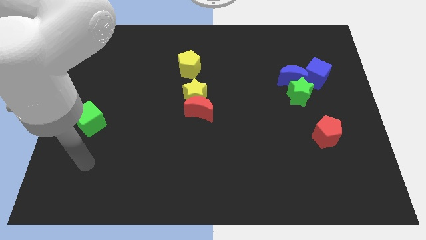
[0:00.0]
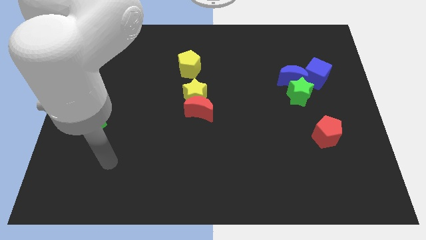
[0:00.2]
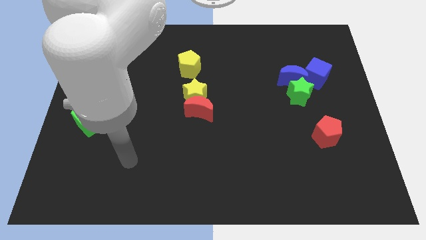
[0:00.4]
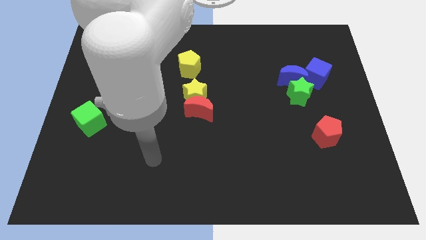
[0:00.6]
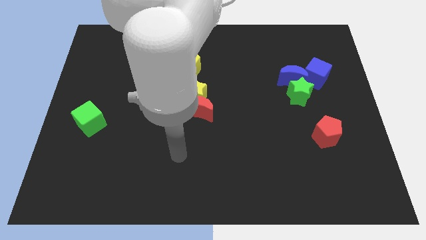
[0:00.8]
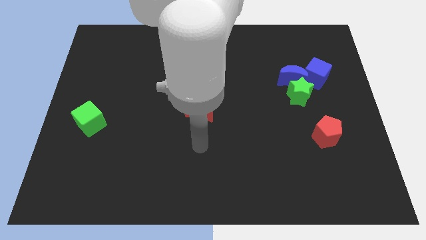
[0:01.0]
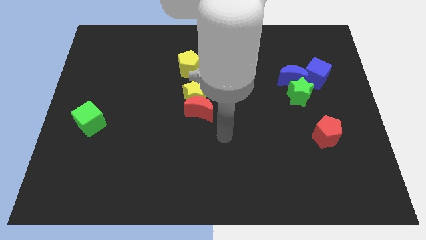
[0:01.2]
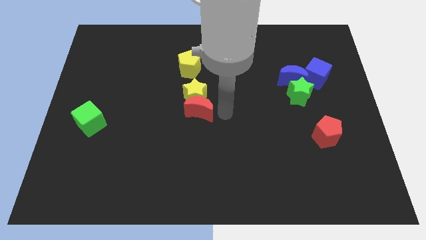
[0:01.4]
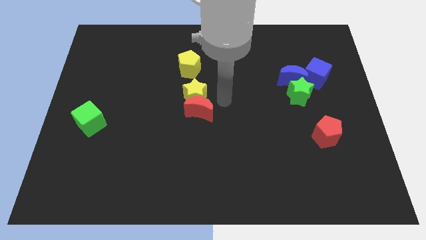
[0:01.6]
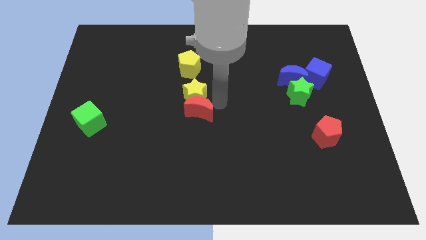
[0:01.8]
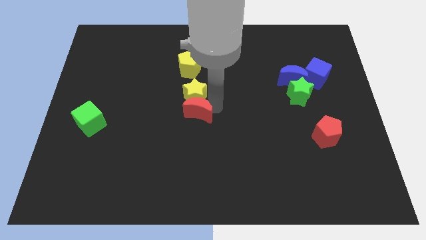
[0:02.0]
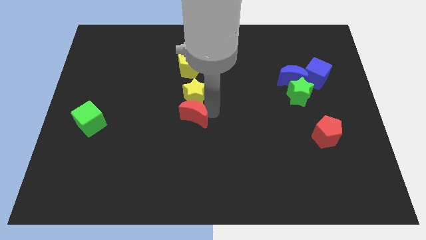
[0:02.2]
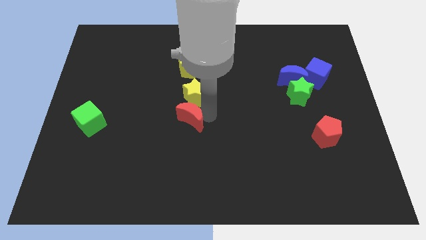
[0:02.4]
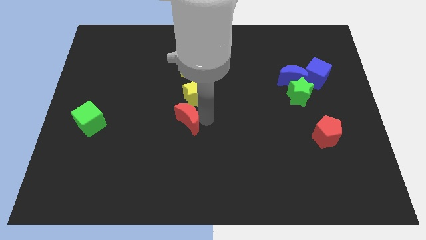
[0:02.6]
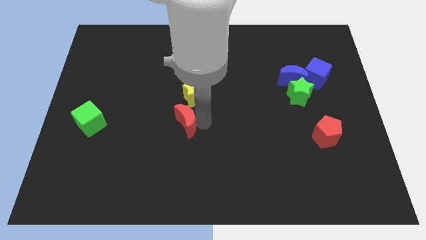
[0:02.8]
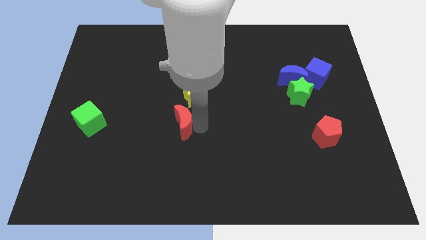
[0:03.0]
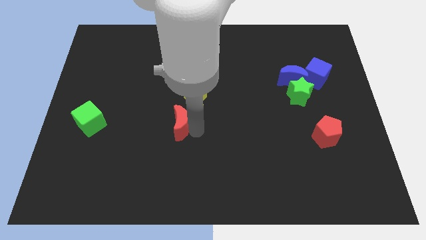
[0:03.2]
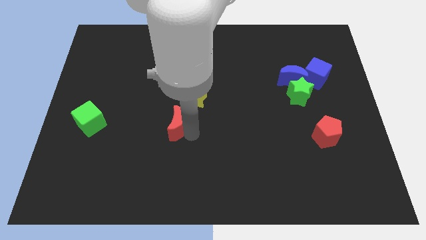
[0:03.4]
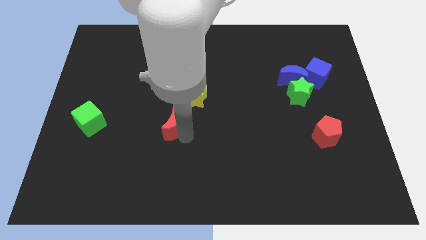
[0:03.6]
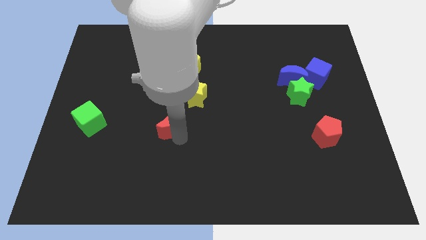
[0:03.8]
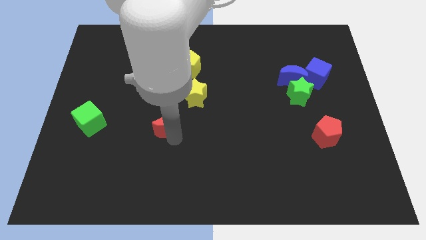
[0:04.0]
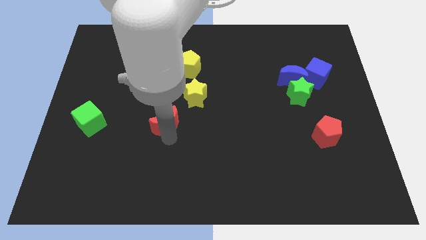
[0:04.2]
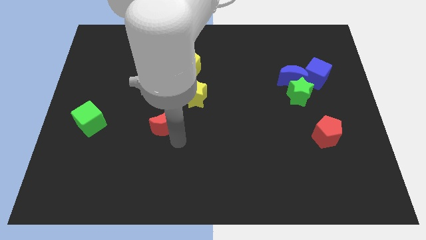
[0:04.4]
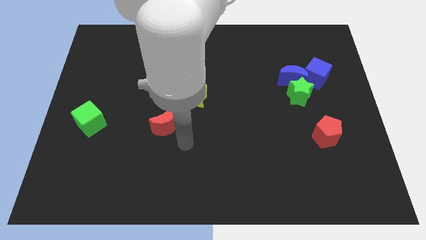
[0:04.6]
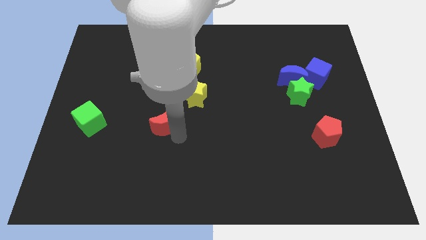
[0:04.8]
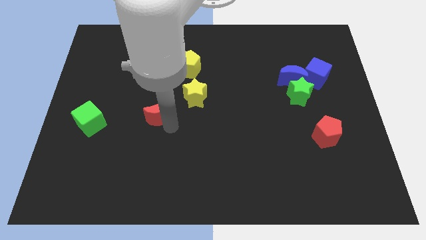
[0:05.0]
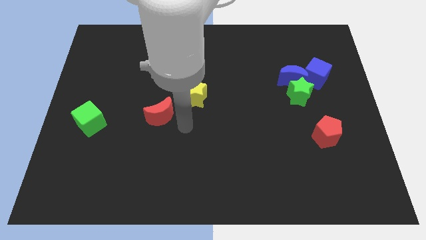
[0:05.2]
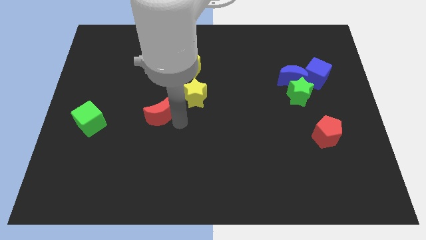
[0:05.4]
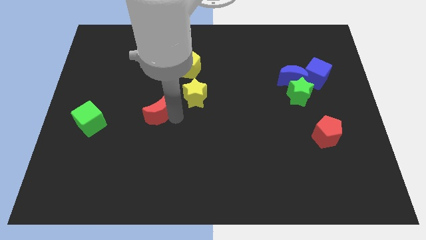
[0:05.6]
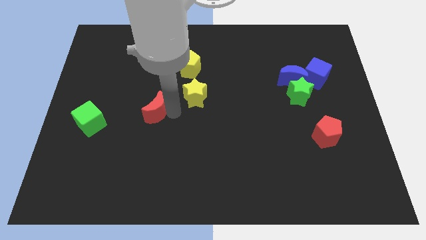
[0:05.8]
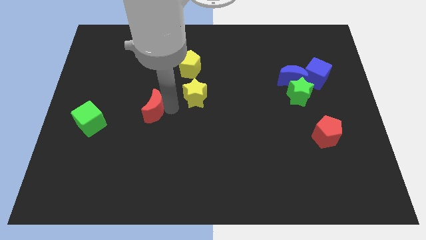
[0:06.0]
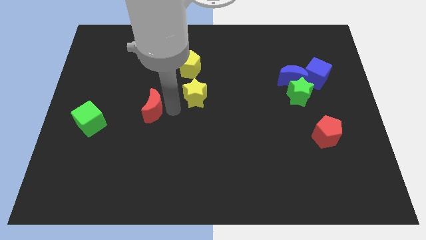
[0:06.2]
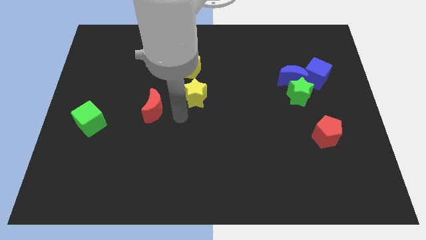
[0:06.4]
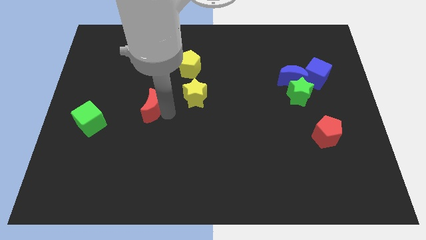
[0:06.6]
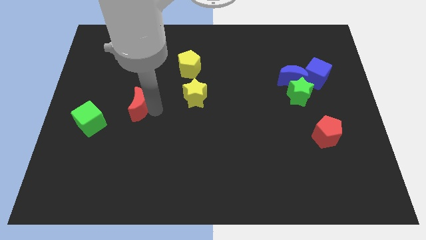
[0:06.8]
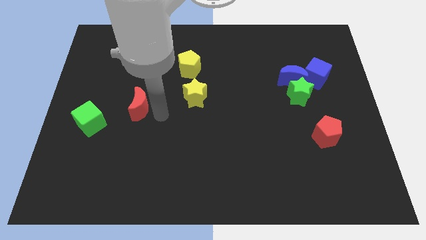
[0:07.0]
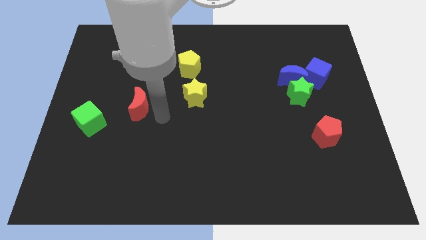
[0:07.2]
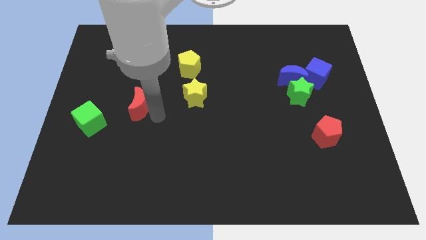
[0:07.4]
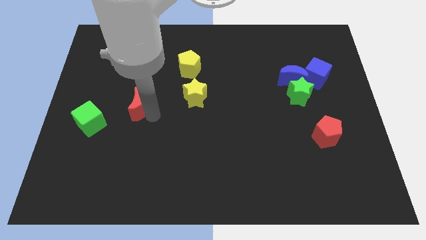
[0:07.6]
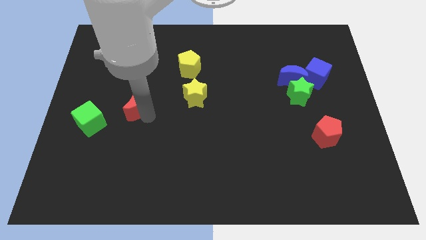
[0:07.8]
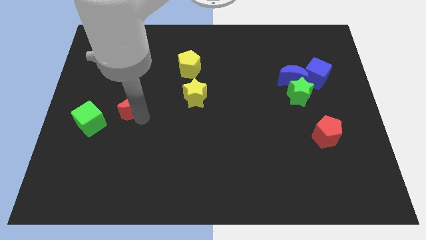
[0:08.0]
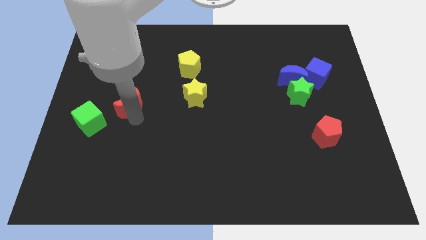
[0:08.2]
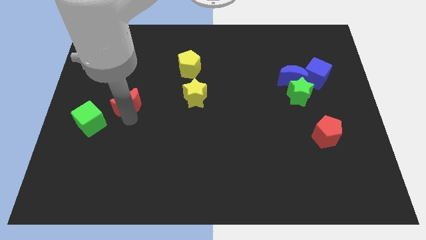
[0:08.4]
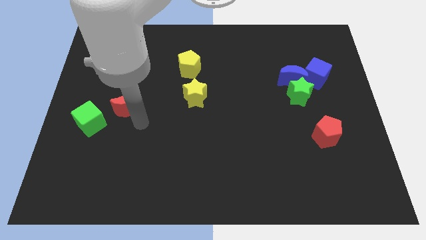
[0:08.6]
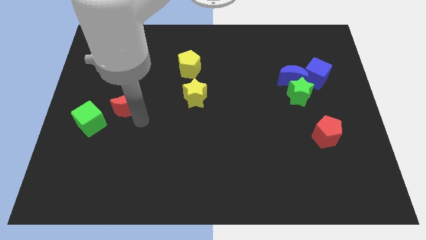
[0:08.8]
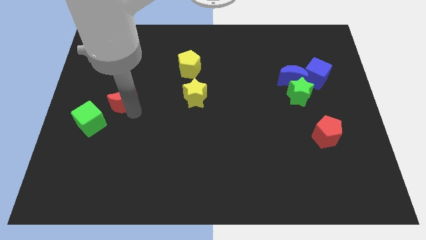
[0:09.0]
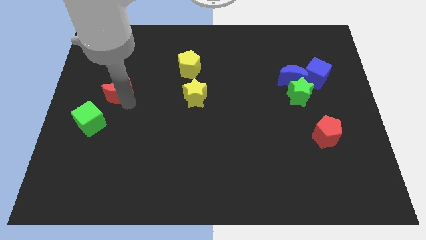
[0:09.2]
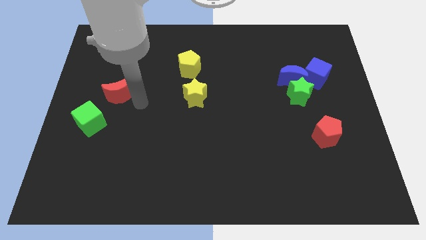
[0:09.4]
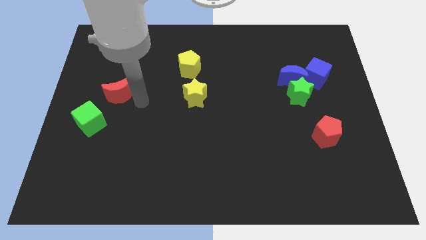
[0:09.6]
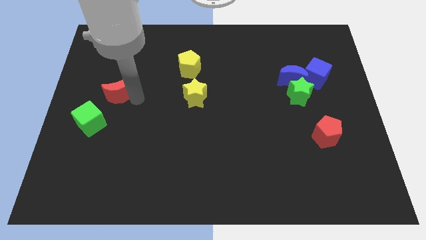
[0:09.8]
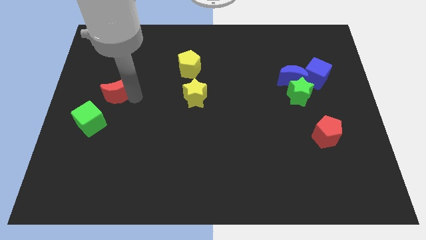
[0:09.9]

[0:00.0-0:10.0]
slide the red moon above the green cube

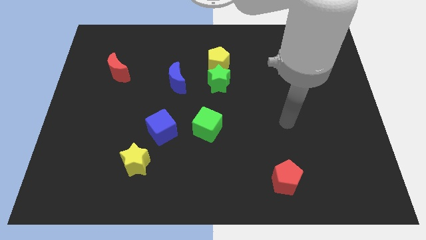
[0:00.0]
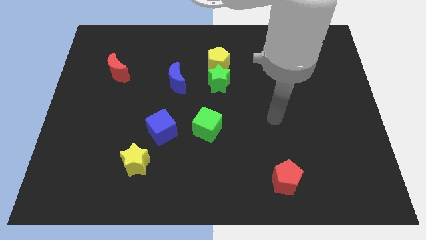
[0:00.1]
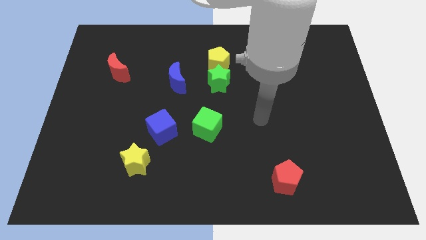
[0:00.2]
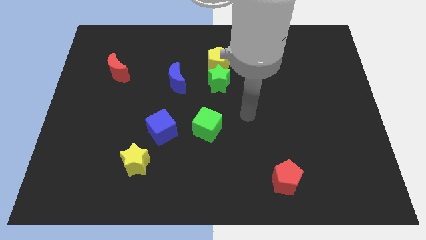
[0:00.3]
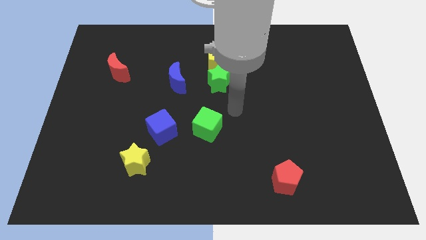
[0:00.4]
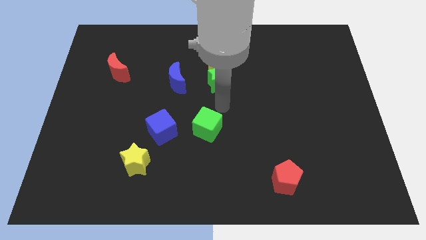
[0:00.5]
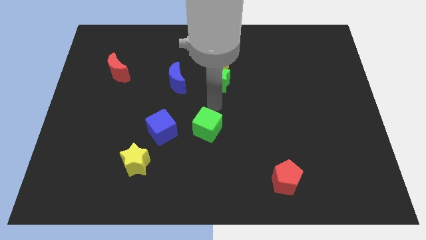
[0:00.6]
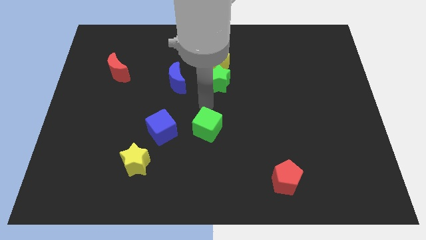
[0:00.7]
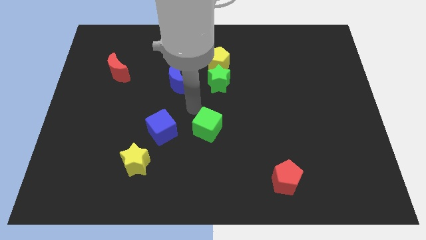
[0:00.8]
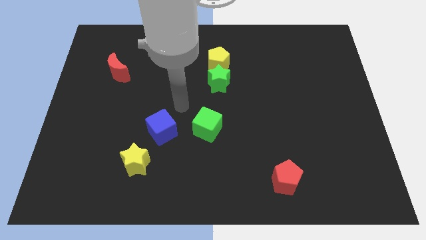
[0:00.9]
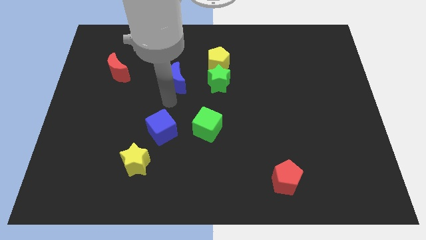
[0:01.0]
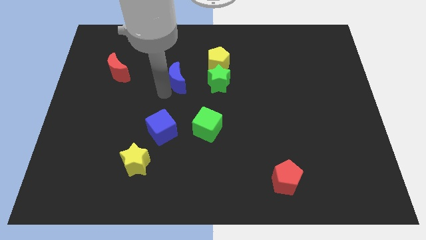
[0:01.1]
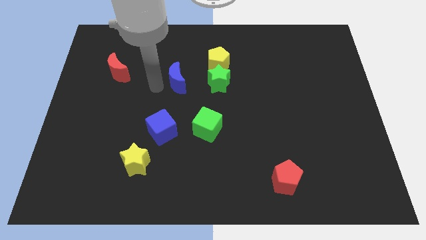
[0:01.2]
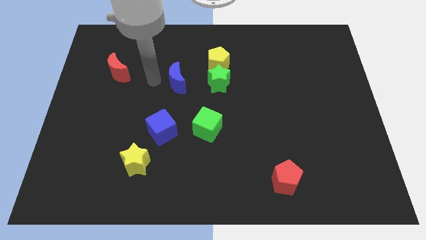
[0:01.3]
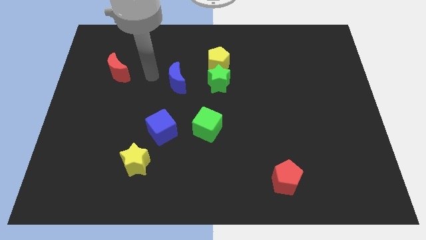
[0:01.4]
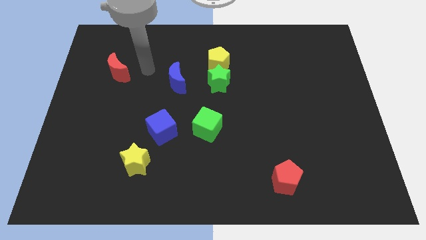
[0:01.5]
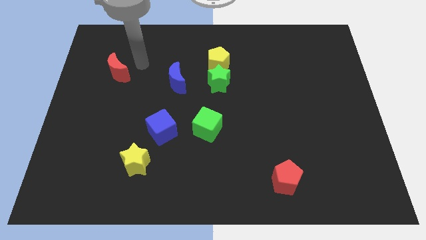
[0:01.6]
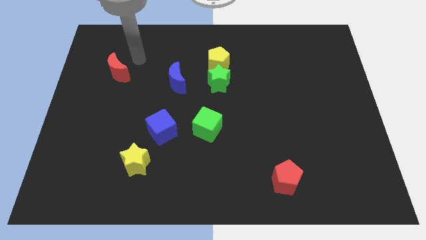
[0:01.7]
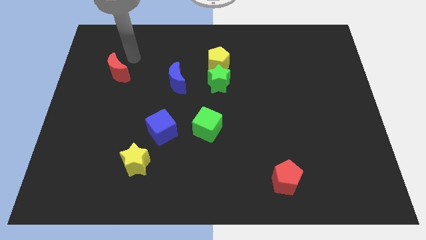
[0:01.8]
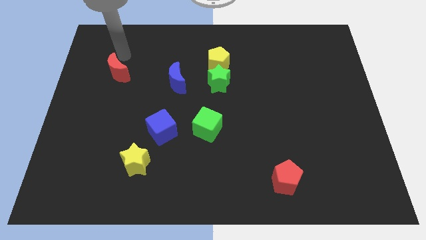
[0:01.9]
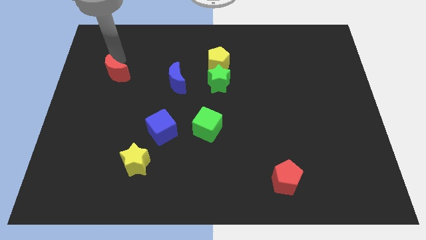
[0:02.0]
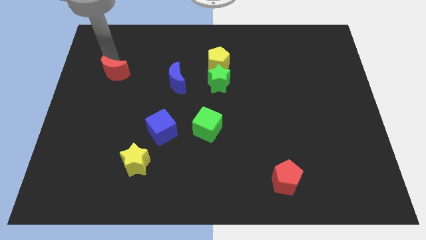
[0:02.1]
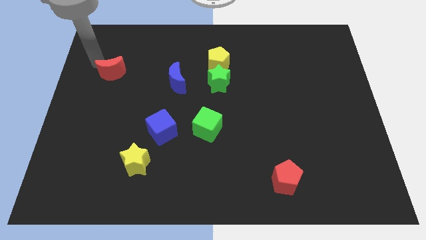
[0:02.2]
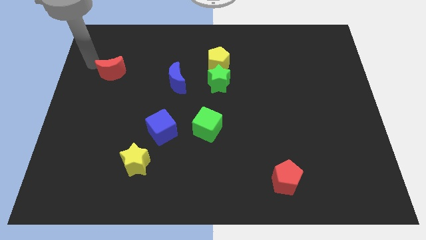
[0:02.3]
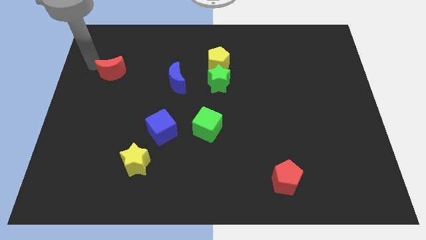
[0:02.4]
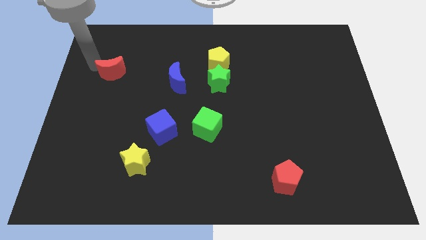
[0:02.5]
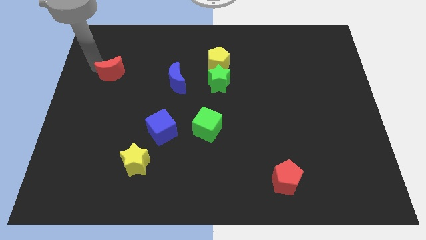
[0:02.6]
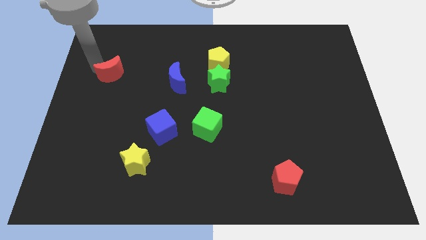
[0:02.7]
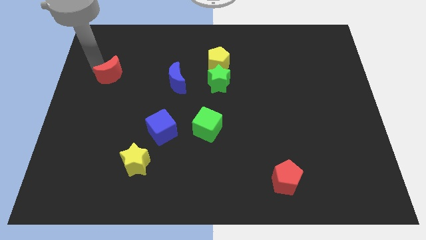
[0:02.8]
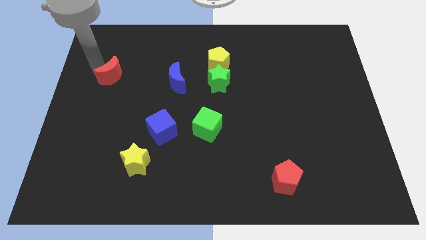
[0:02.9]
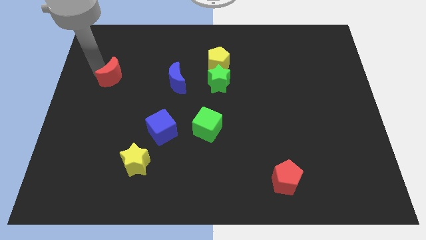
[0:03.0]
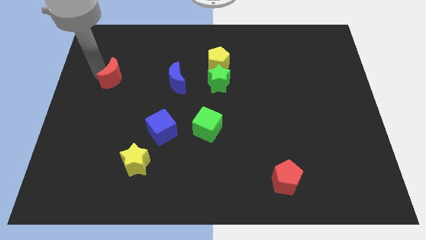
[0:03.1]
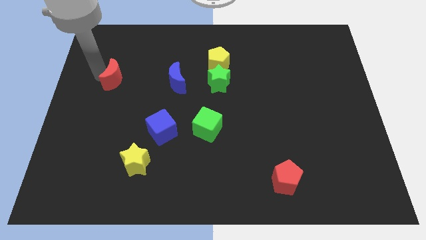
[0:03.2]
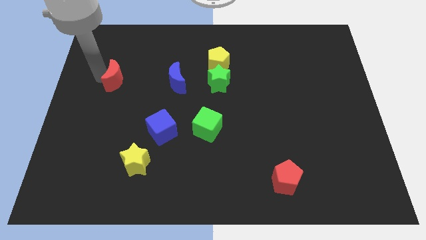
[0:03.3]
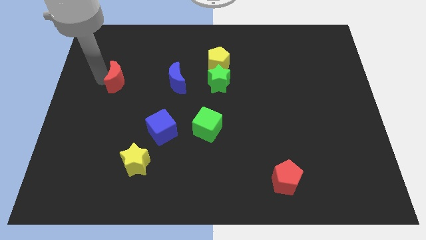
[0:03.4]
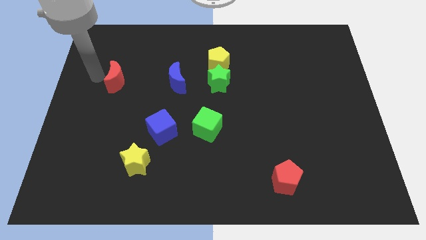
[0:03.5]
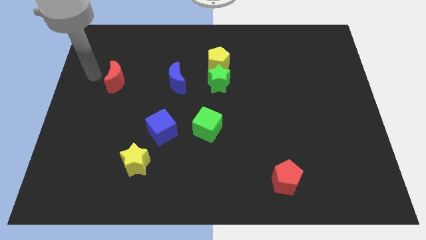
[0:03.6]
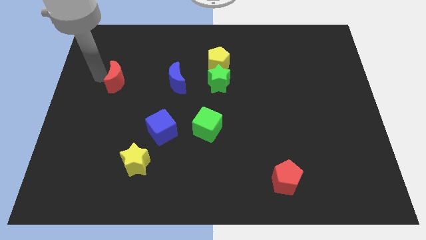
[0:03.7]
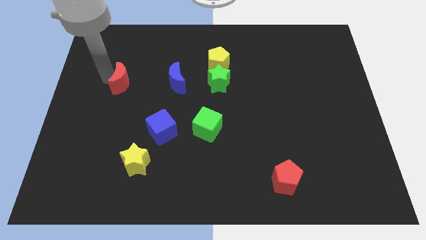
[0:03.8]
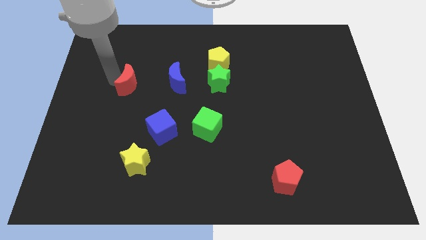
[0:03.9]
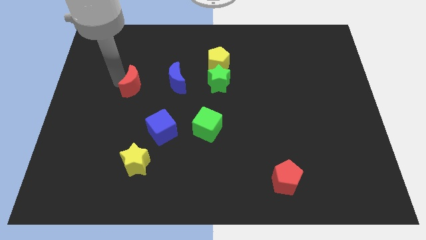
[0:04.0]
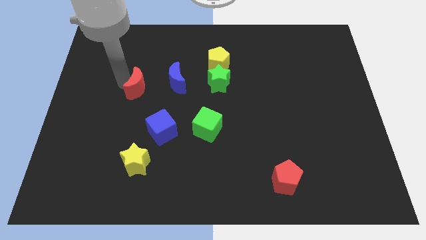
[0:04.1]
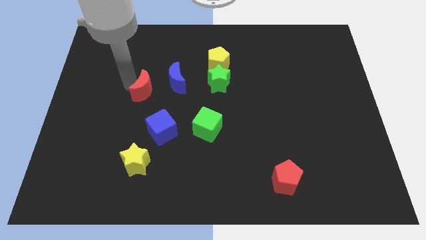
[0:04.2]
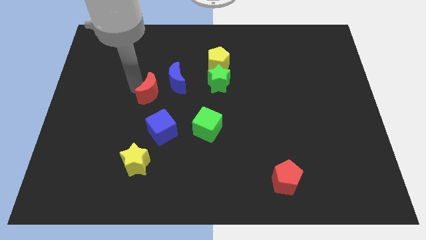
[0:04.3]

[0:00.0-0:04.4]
push the red moon above the blue cube
